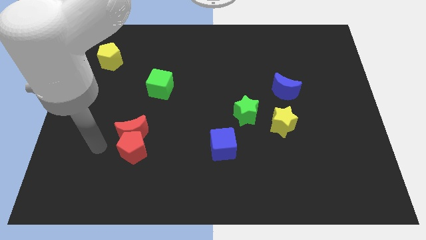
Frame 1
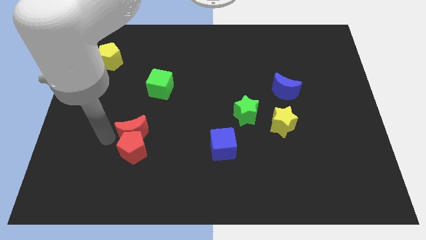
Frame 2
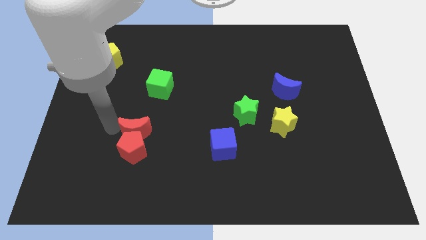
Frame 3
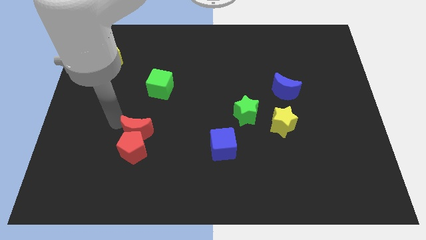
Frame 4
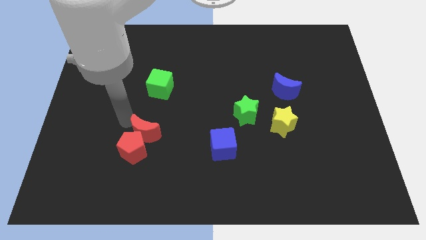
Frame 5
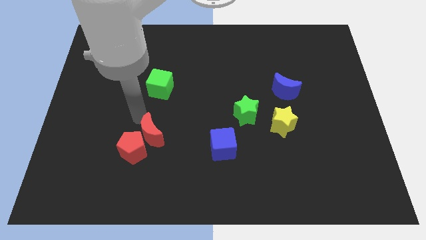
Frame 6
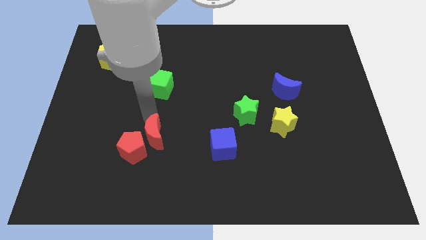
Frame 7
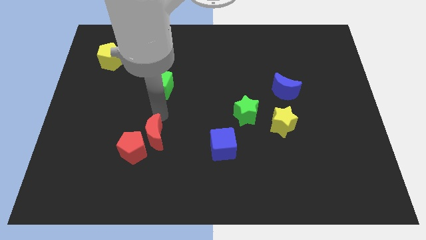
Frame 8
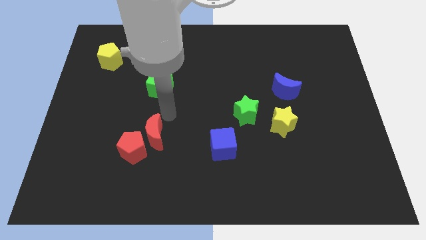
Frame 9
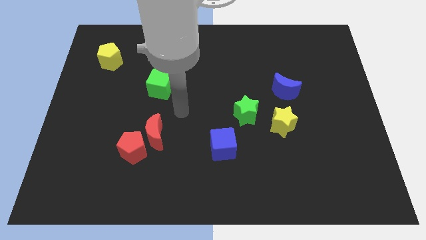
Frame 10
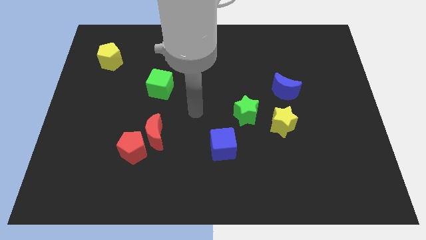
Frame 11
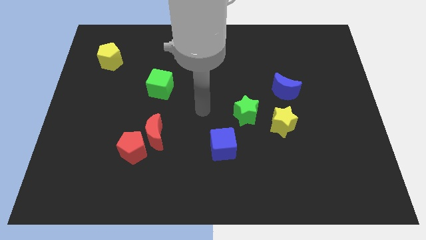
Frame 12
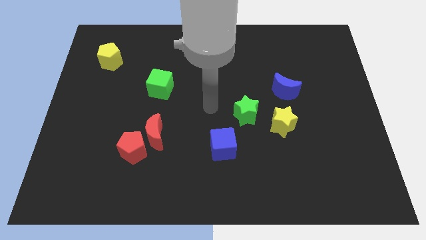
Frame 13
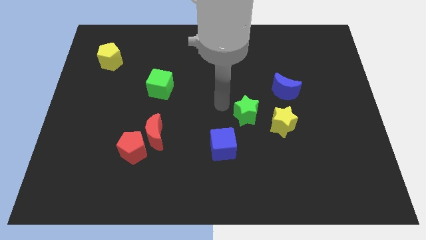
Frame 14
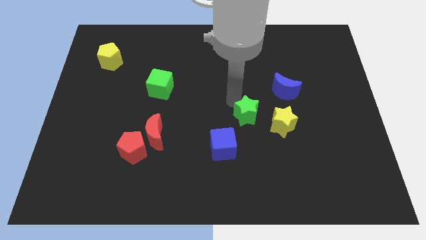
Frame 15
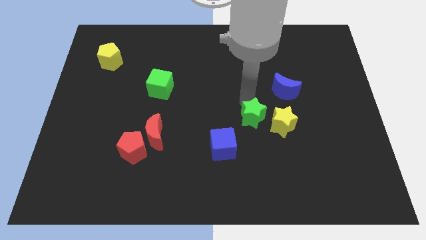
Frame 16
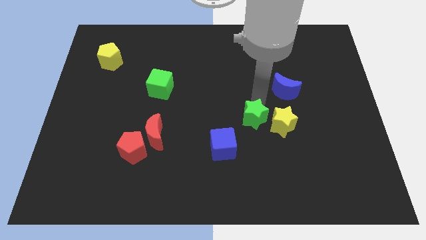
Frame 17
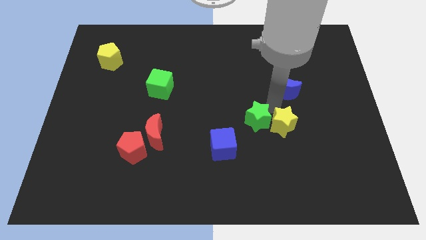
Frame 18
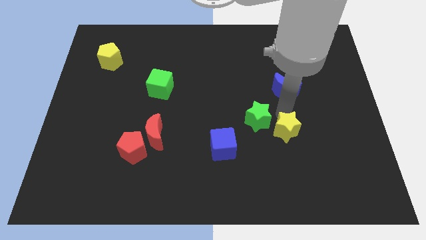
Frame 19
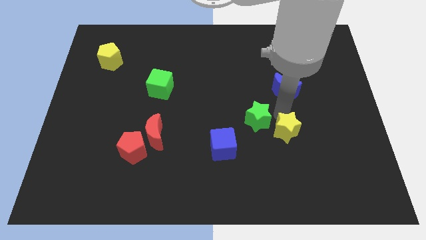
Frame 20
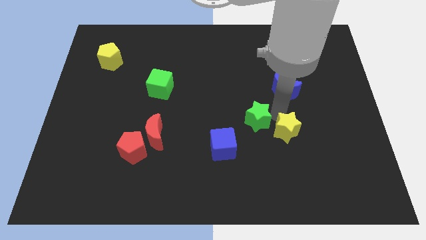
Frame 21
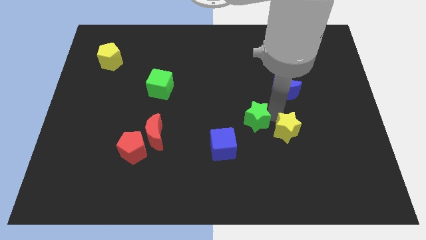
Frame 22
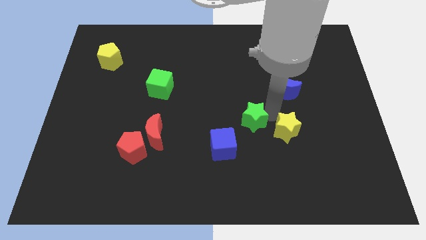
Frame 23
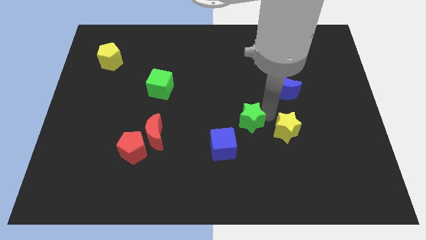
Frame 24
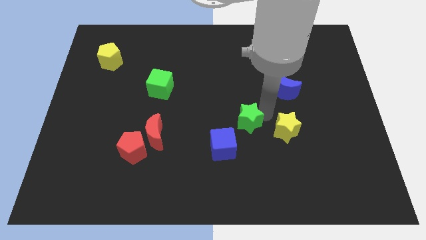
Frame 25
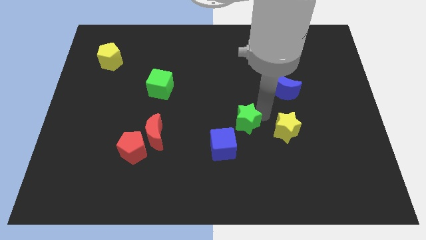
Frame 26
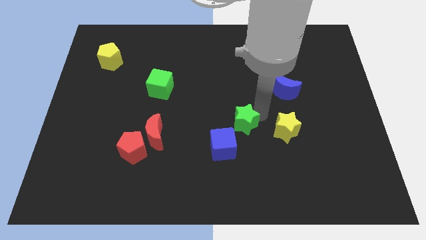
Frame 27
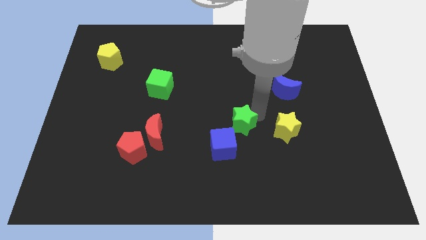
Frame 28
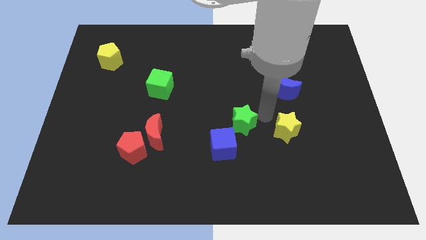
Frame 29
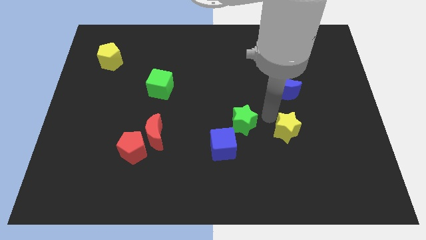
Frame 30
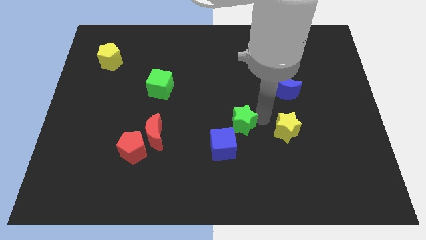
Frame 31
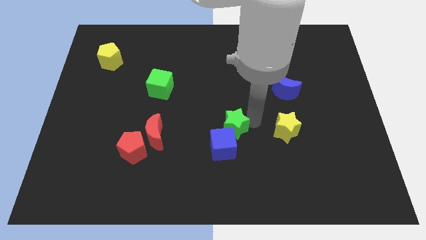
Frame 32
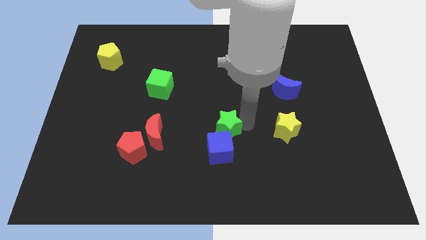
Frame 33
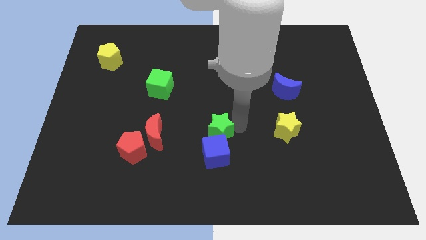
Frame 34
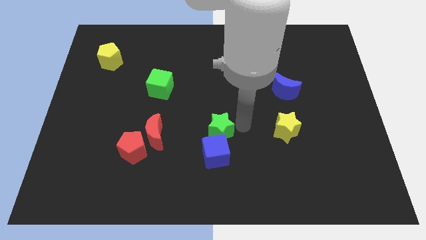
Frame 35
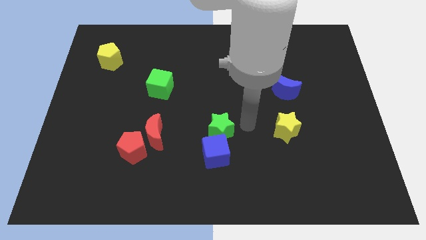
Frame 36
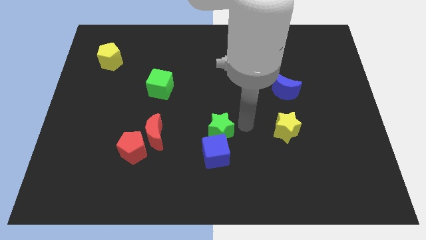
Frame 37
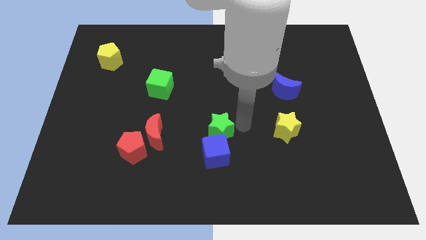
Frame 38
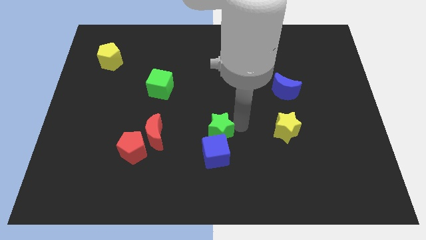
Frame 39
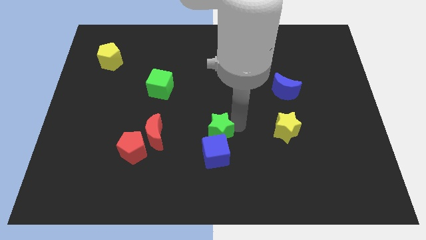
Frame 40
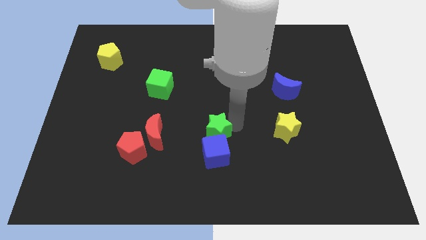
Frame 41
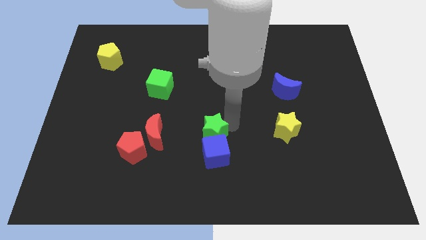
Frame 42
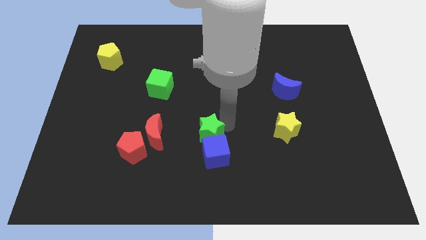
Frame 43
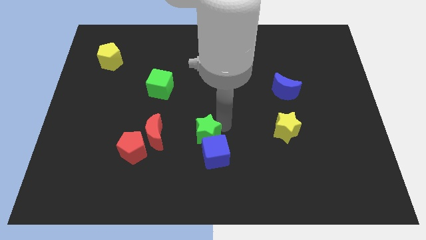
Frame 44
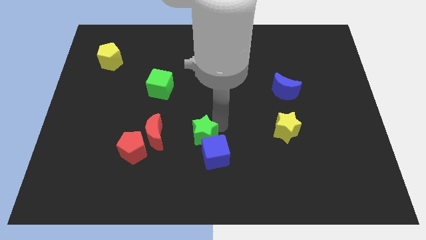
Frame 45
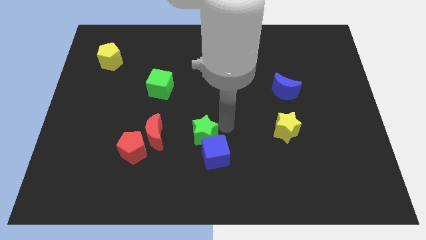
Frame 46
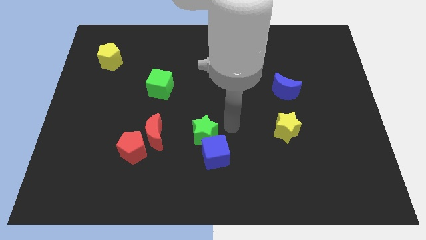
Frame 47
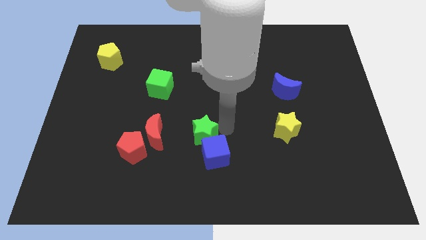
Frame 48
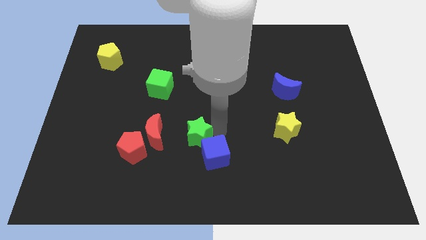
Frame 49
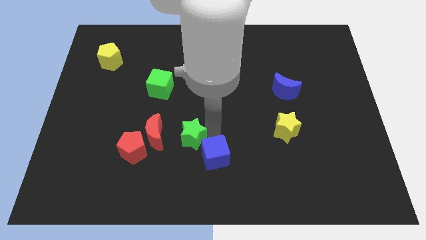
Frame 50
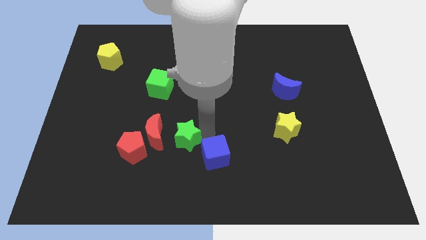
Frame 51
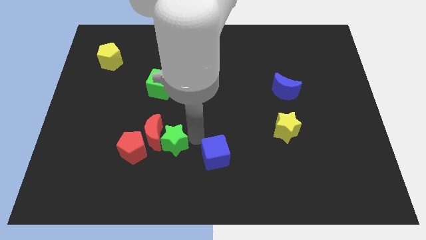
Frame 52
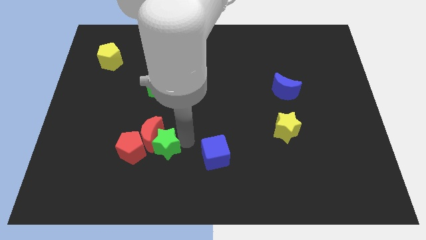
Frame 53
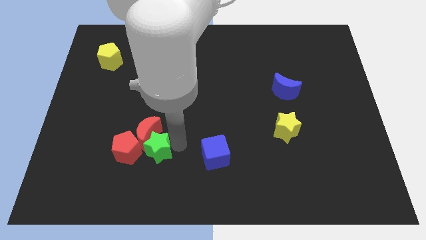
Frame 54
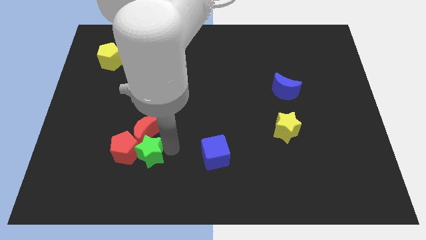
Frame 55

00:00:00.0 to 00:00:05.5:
slide the green star to the red pentagon

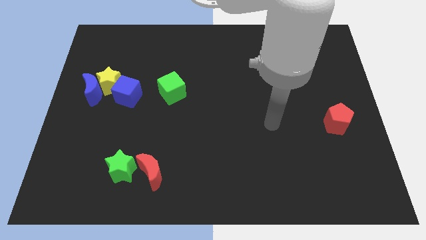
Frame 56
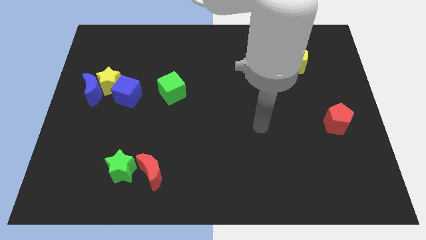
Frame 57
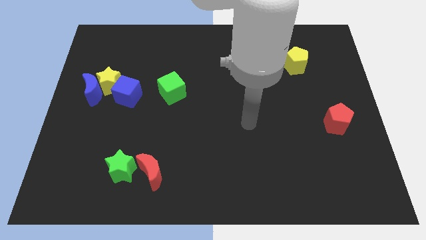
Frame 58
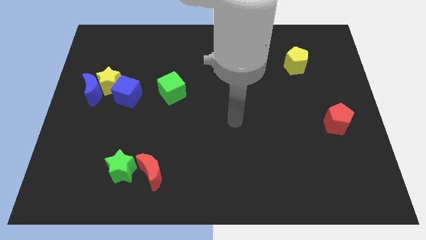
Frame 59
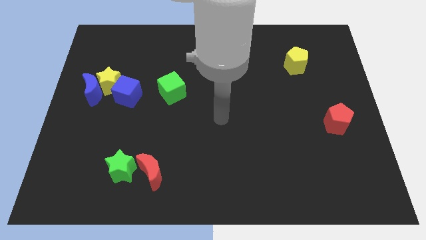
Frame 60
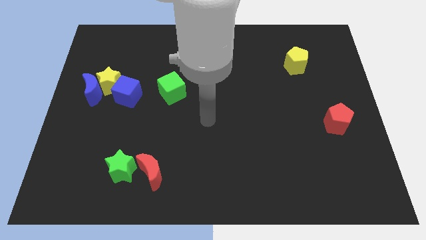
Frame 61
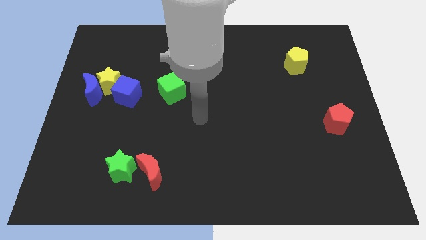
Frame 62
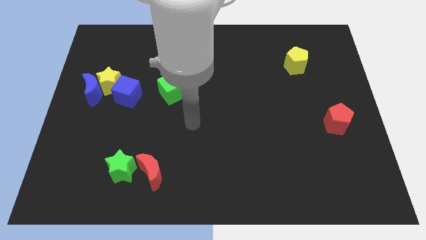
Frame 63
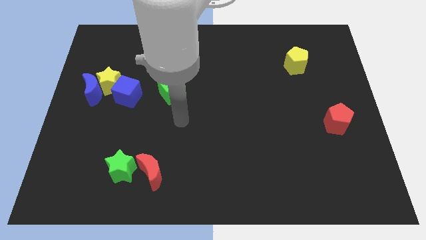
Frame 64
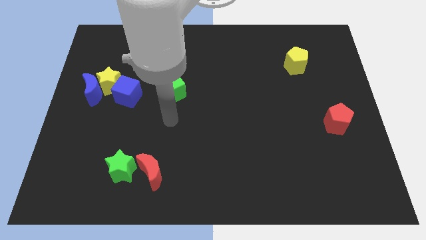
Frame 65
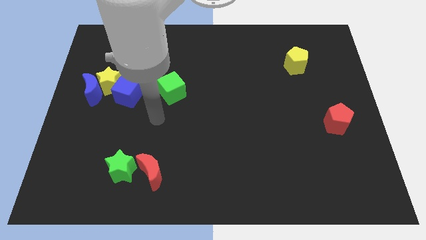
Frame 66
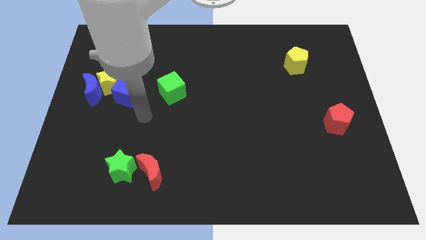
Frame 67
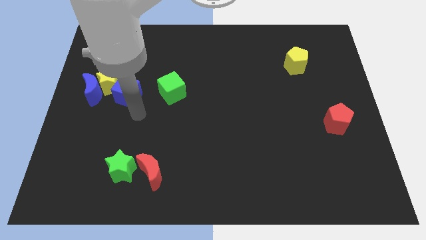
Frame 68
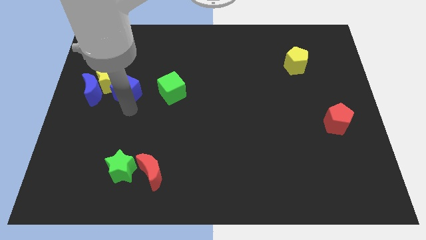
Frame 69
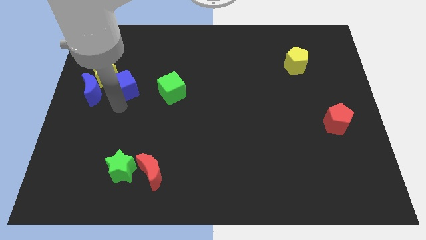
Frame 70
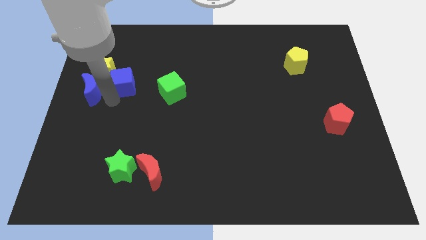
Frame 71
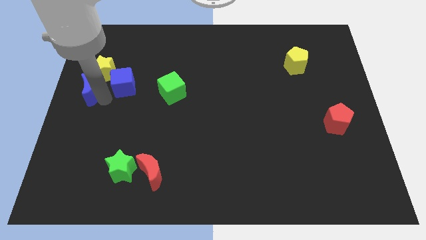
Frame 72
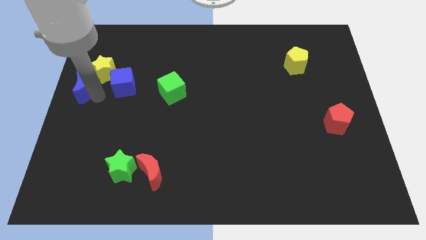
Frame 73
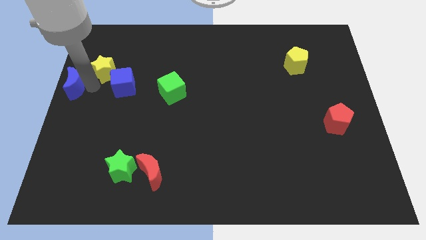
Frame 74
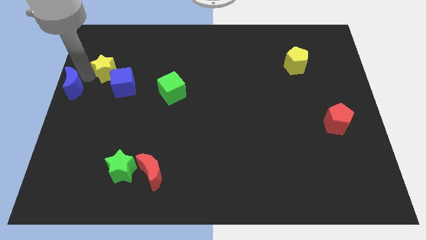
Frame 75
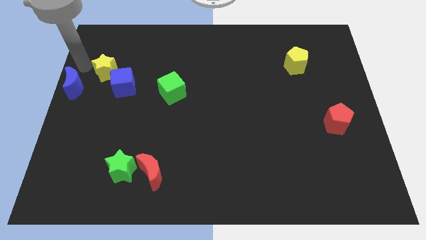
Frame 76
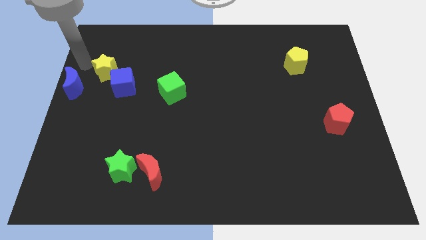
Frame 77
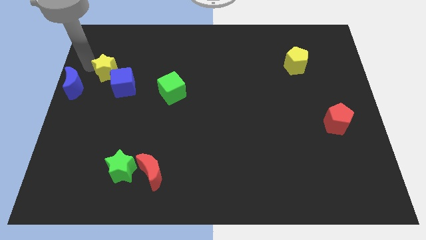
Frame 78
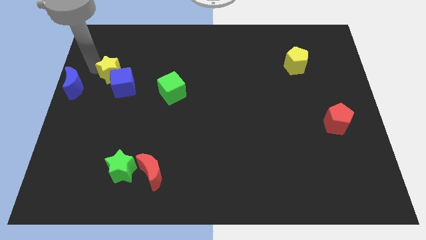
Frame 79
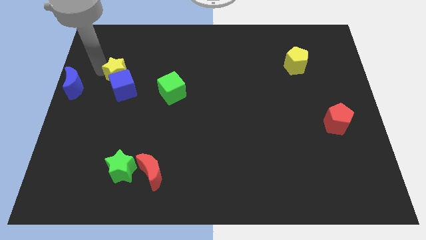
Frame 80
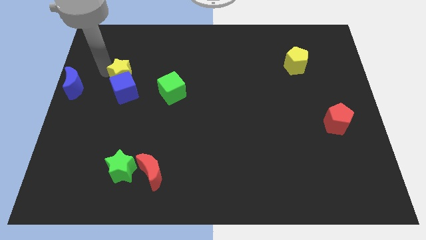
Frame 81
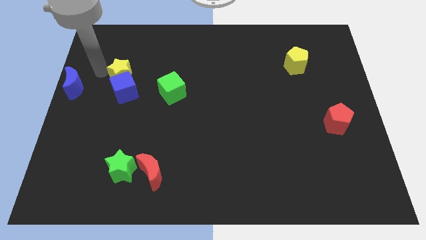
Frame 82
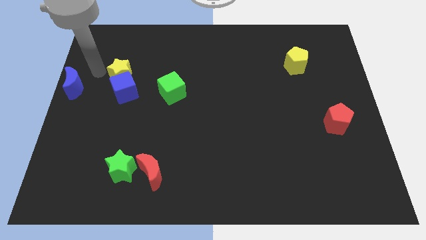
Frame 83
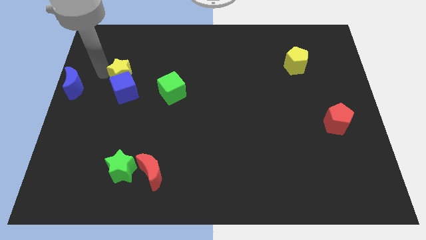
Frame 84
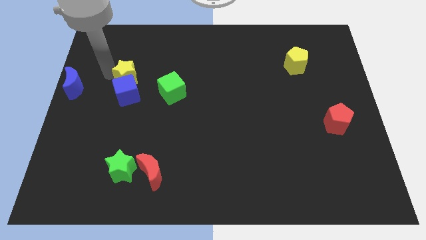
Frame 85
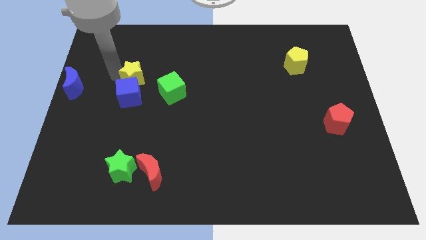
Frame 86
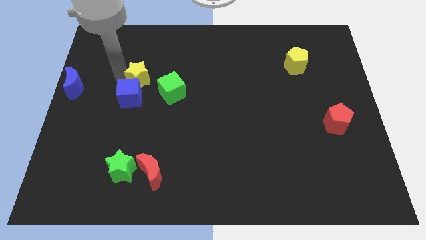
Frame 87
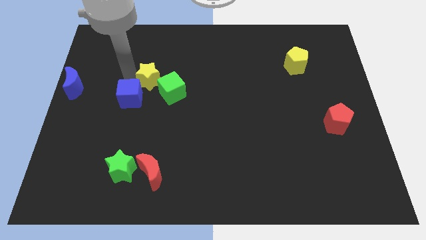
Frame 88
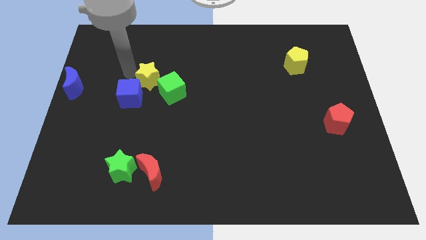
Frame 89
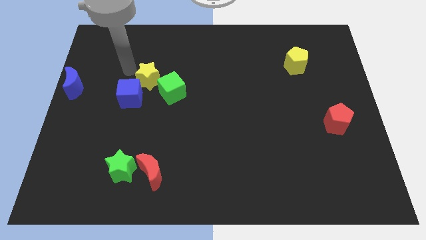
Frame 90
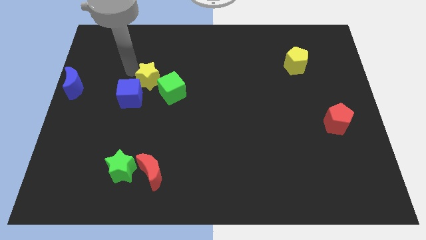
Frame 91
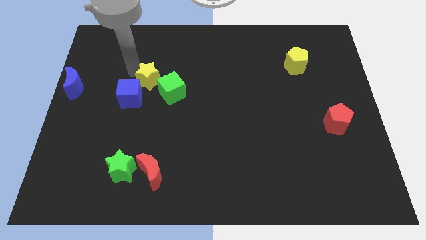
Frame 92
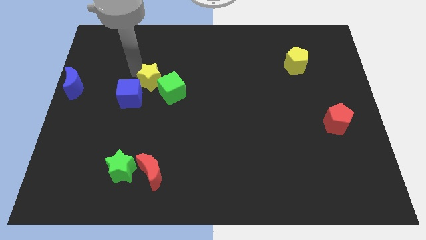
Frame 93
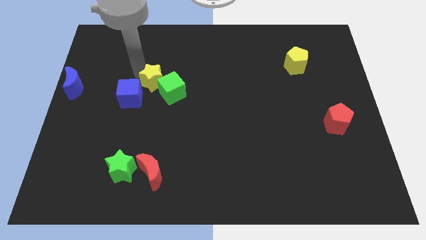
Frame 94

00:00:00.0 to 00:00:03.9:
put the yellow star towards the green cube
